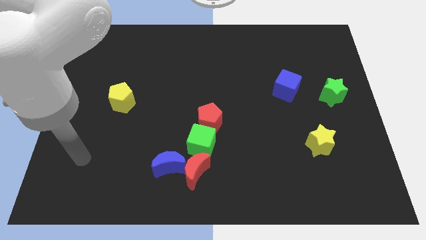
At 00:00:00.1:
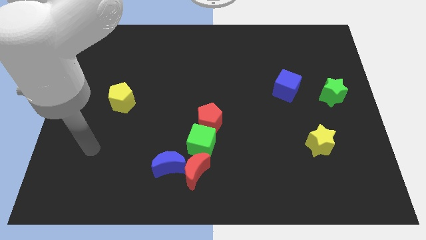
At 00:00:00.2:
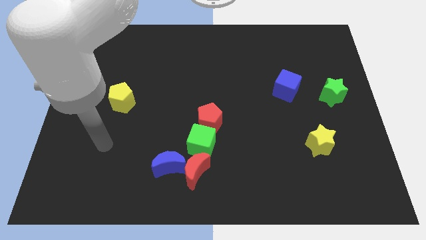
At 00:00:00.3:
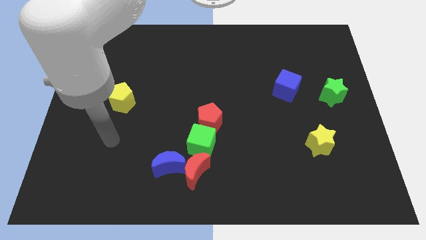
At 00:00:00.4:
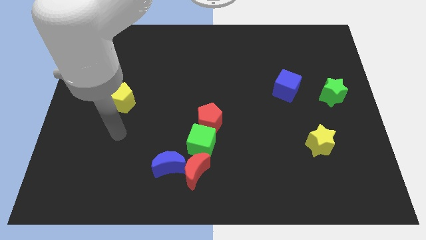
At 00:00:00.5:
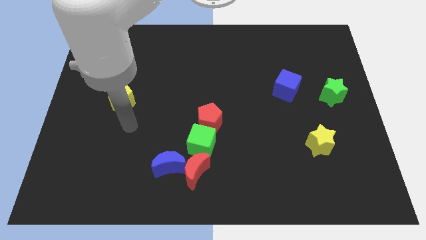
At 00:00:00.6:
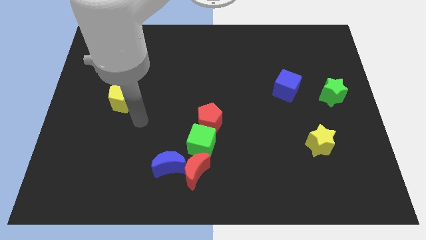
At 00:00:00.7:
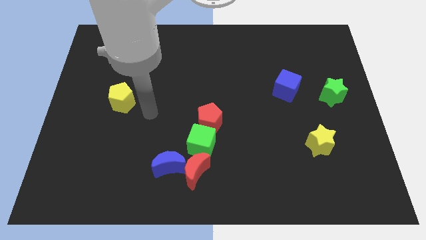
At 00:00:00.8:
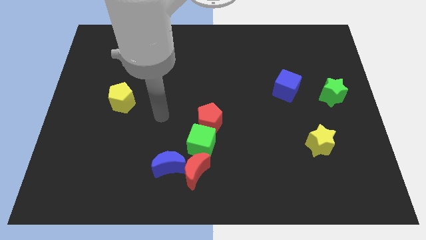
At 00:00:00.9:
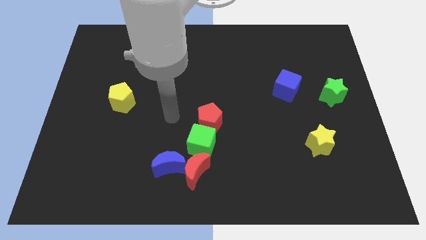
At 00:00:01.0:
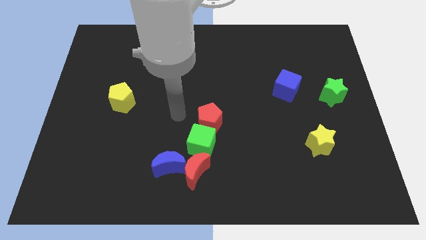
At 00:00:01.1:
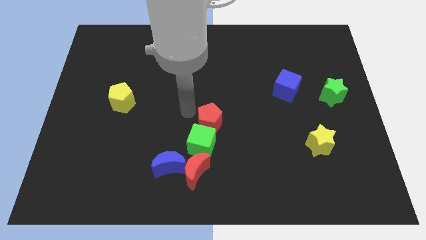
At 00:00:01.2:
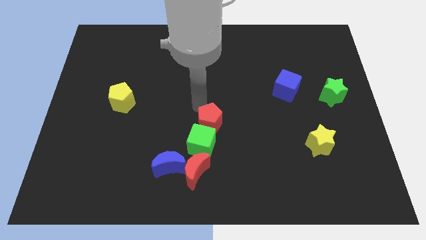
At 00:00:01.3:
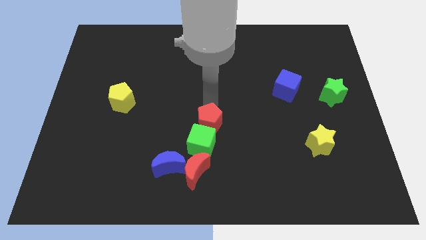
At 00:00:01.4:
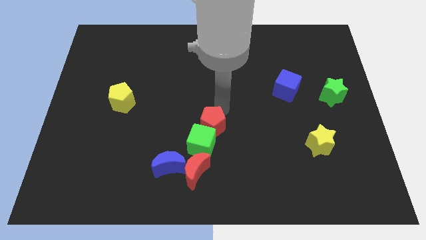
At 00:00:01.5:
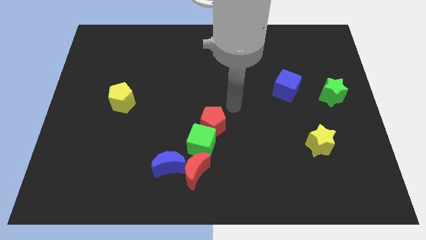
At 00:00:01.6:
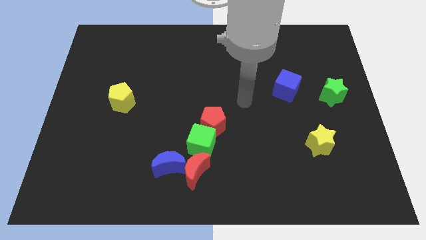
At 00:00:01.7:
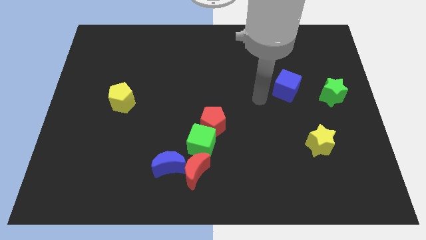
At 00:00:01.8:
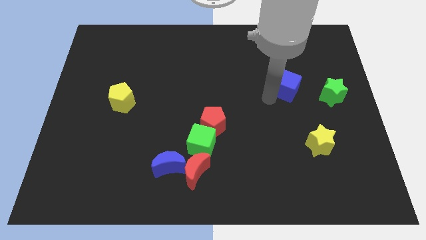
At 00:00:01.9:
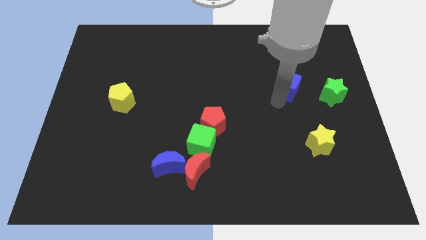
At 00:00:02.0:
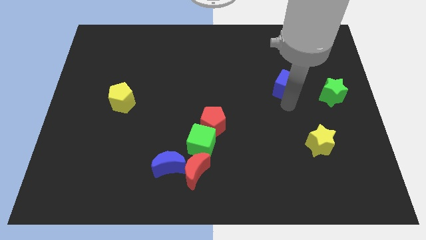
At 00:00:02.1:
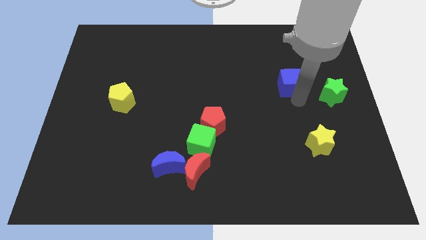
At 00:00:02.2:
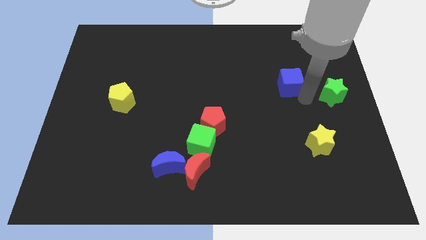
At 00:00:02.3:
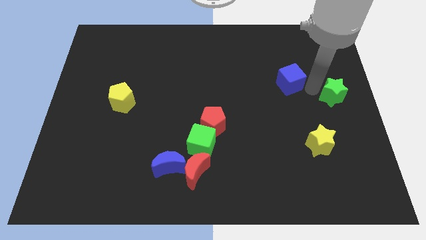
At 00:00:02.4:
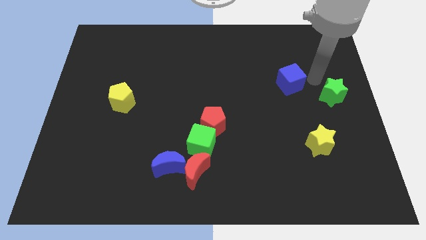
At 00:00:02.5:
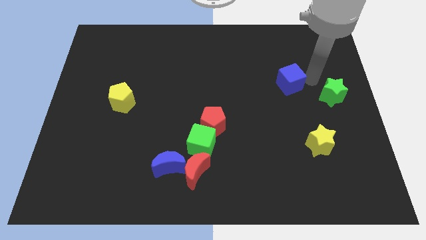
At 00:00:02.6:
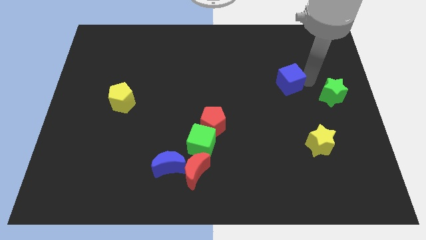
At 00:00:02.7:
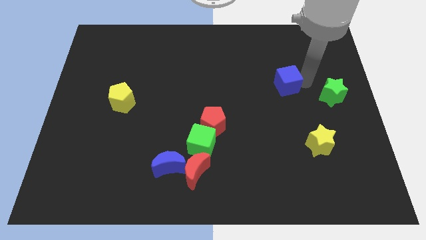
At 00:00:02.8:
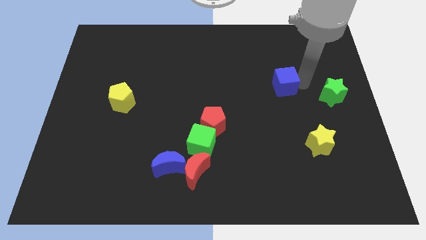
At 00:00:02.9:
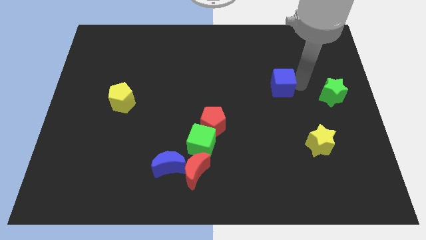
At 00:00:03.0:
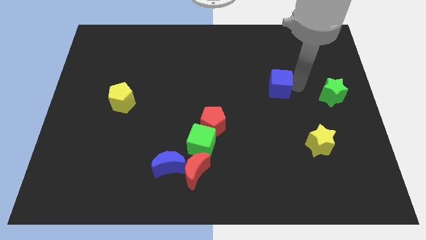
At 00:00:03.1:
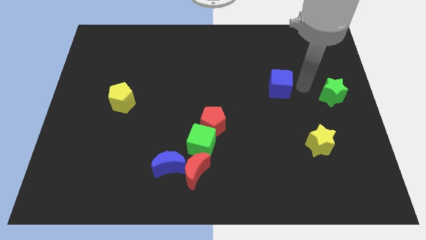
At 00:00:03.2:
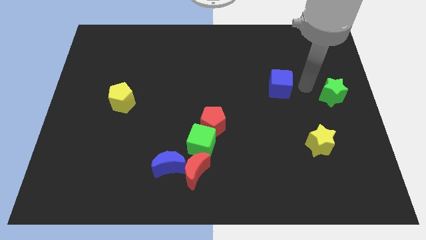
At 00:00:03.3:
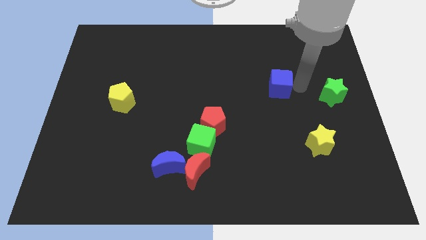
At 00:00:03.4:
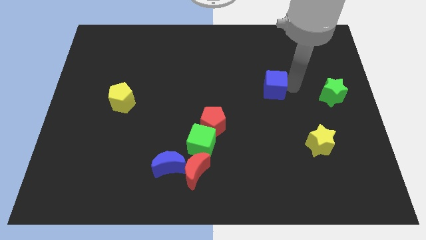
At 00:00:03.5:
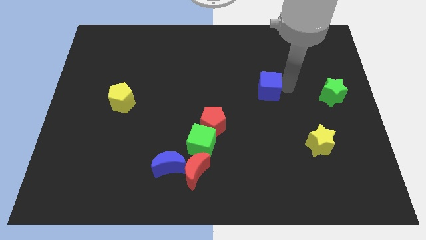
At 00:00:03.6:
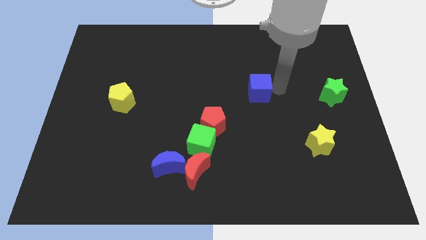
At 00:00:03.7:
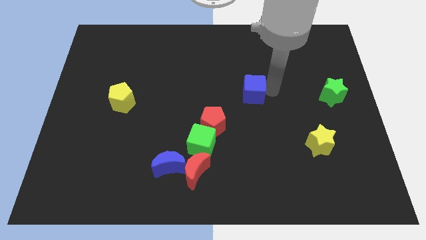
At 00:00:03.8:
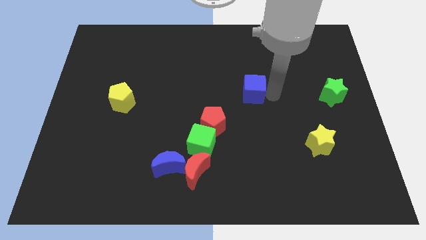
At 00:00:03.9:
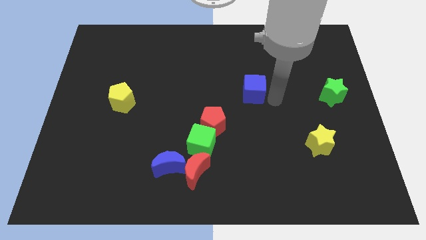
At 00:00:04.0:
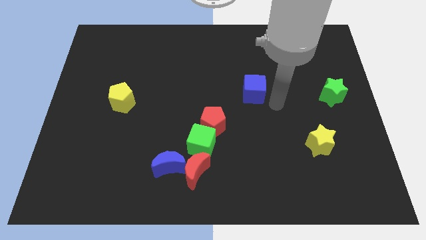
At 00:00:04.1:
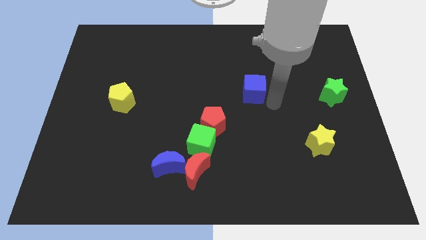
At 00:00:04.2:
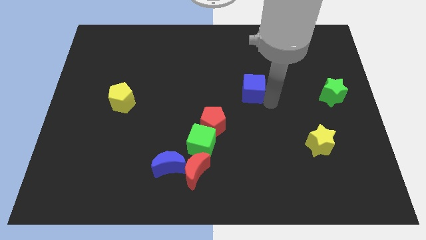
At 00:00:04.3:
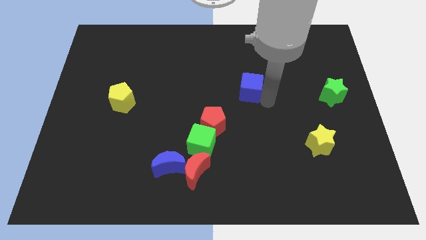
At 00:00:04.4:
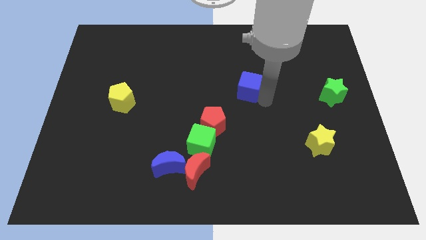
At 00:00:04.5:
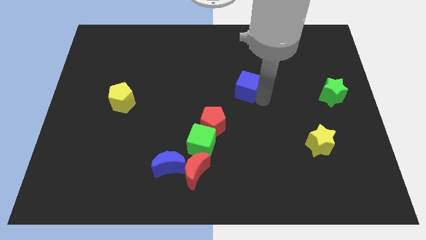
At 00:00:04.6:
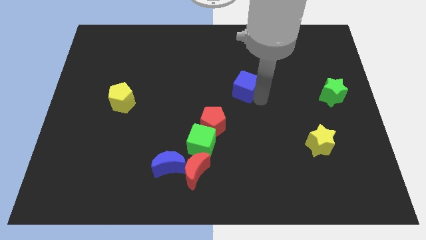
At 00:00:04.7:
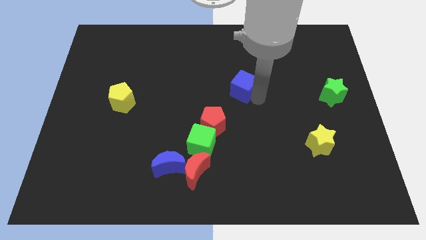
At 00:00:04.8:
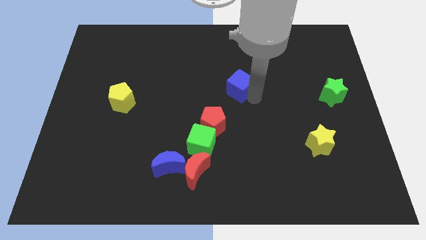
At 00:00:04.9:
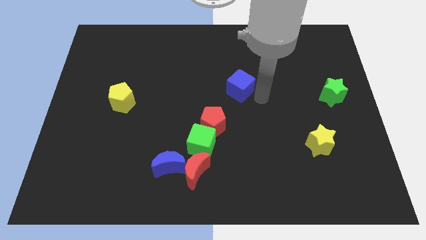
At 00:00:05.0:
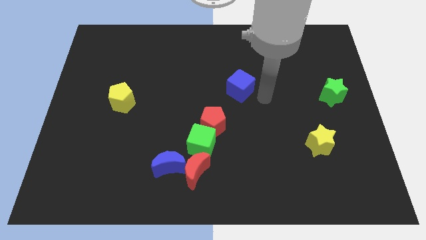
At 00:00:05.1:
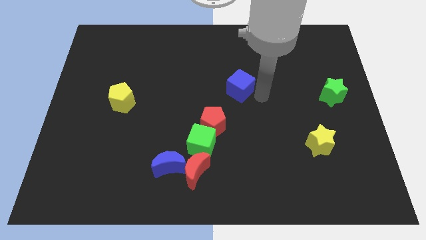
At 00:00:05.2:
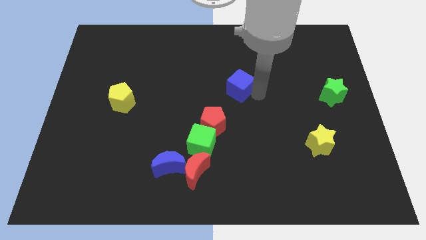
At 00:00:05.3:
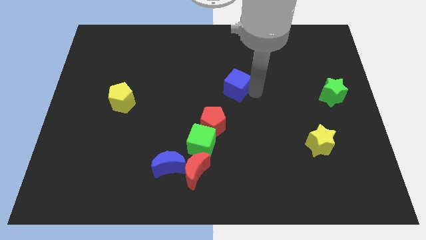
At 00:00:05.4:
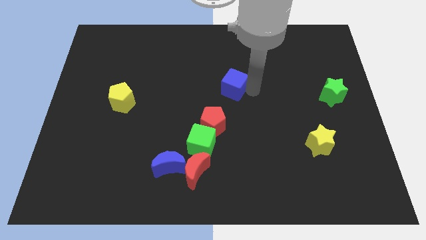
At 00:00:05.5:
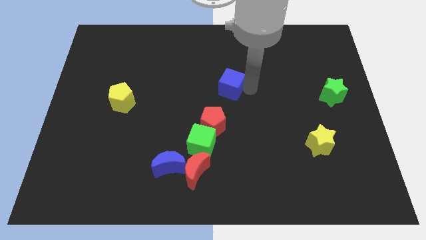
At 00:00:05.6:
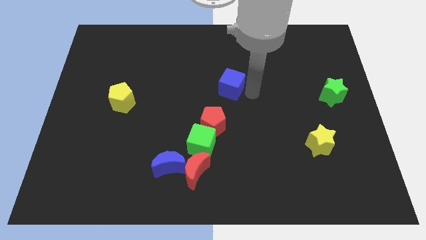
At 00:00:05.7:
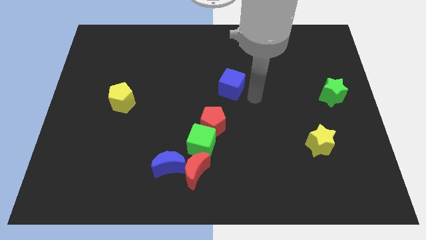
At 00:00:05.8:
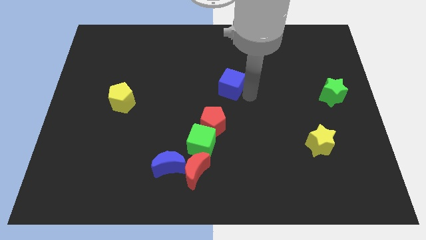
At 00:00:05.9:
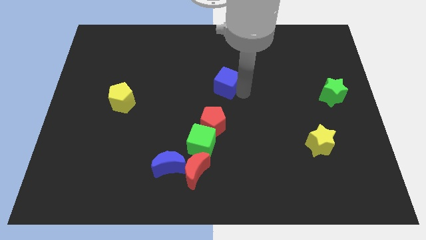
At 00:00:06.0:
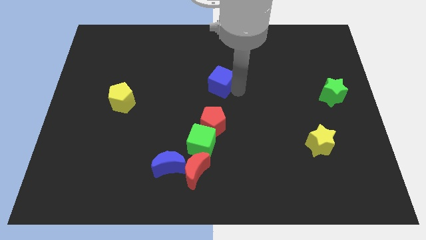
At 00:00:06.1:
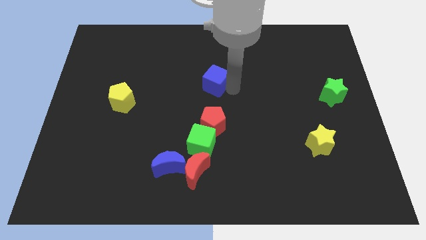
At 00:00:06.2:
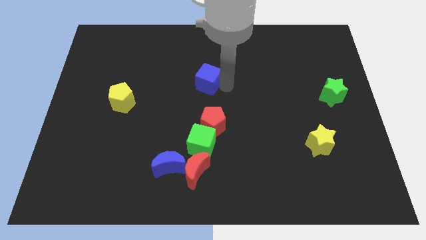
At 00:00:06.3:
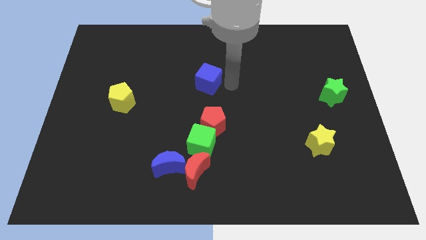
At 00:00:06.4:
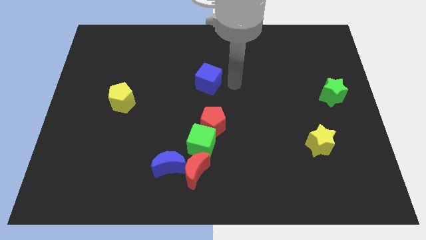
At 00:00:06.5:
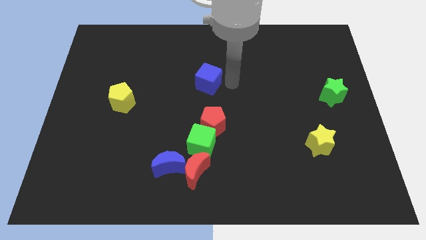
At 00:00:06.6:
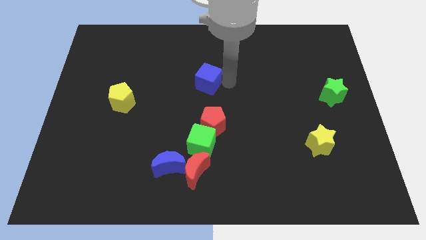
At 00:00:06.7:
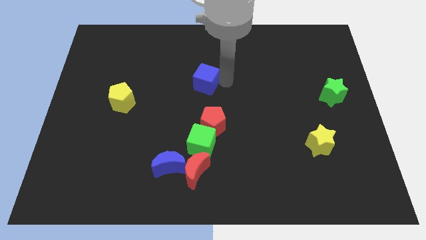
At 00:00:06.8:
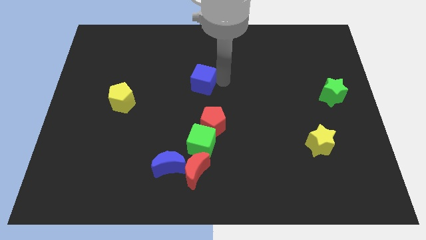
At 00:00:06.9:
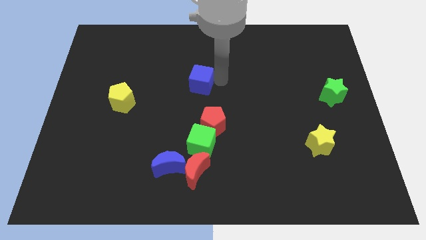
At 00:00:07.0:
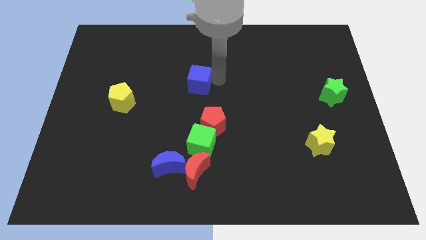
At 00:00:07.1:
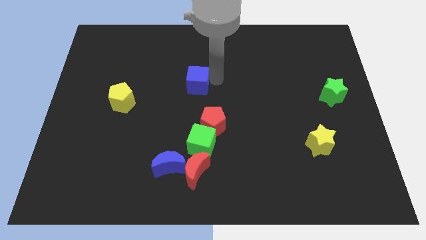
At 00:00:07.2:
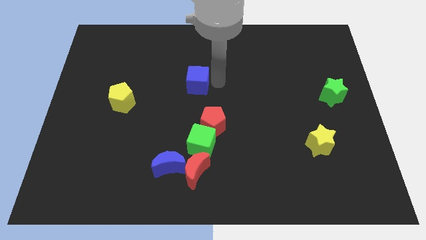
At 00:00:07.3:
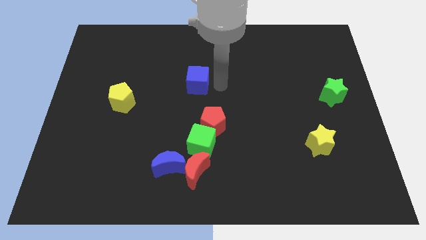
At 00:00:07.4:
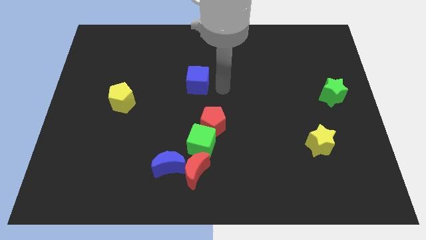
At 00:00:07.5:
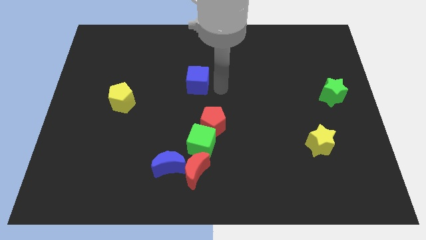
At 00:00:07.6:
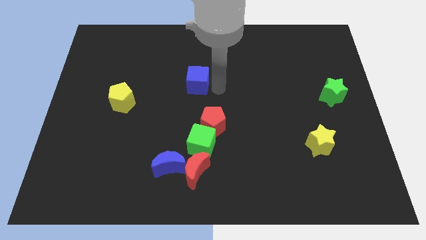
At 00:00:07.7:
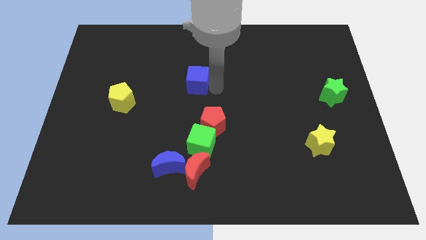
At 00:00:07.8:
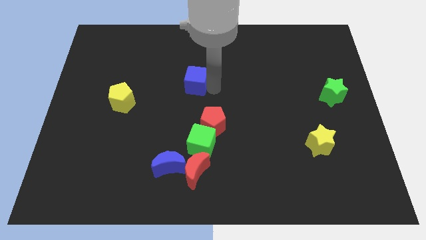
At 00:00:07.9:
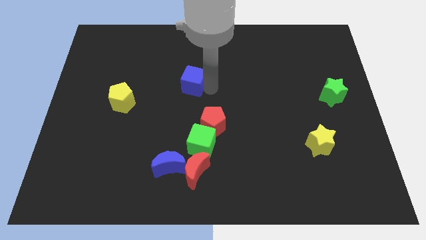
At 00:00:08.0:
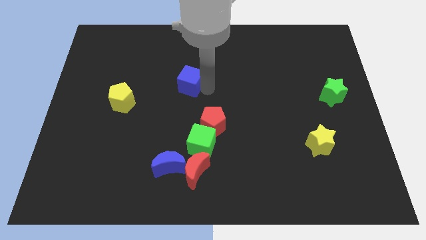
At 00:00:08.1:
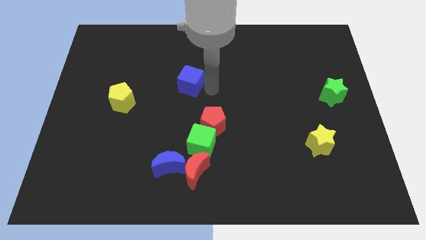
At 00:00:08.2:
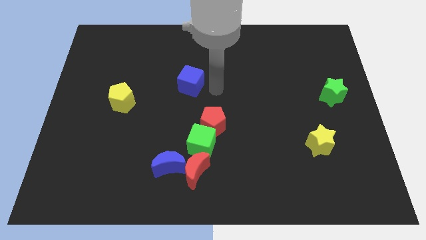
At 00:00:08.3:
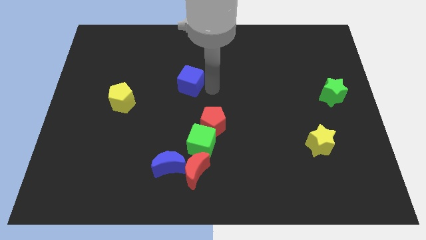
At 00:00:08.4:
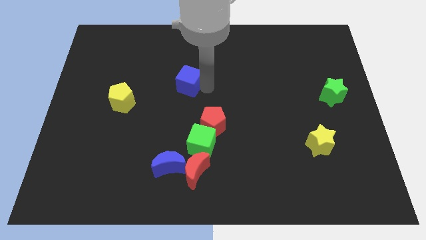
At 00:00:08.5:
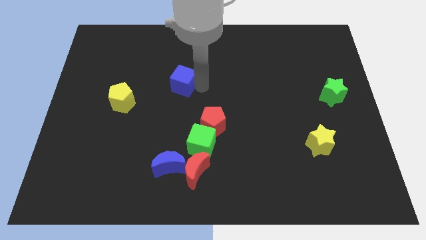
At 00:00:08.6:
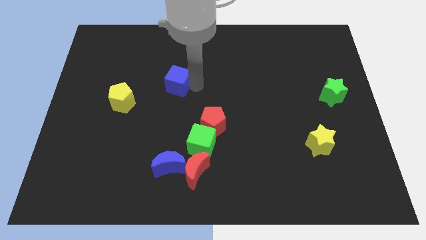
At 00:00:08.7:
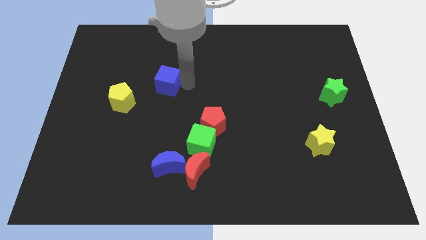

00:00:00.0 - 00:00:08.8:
slide the blue cube diagonally up and to the right of the yellow pentagon
